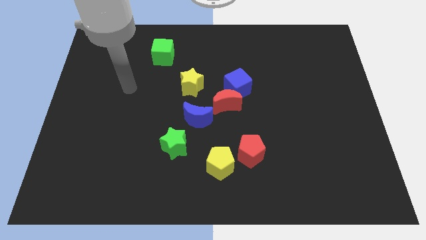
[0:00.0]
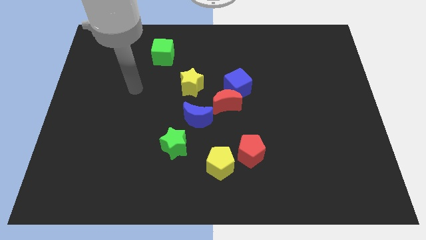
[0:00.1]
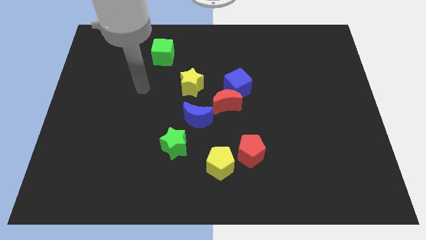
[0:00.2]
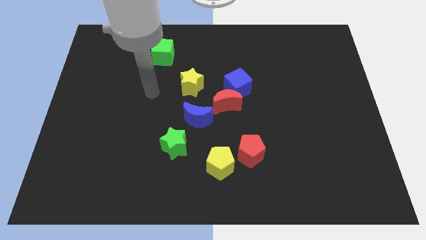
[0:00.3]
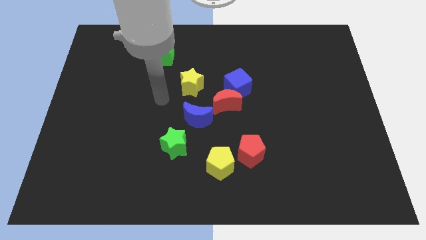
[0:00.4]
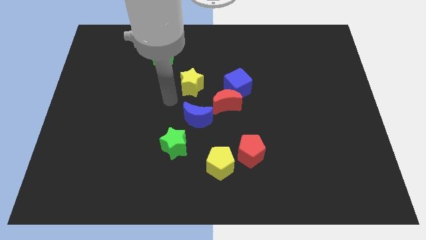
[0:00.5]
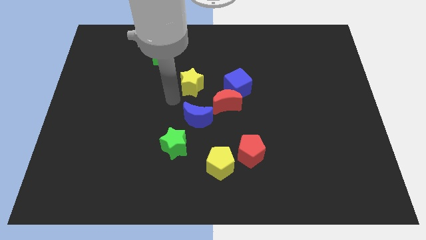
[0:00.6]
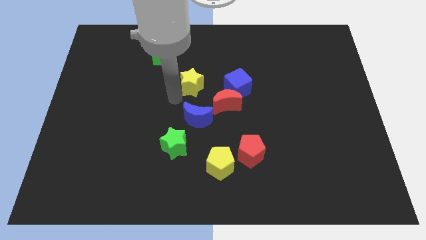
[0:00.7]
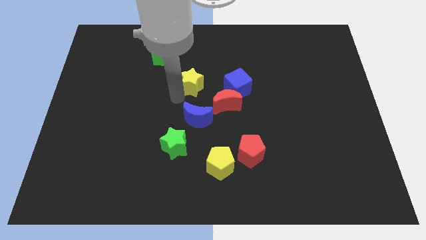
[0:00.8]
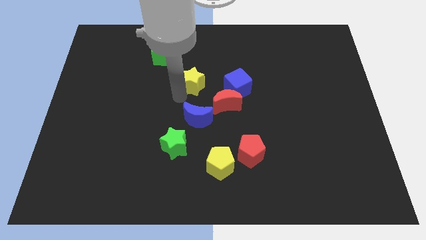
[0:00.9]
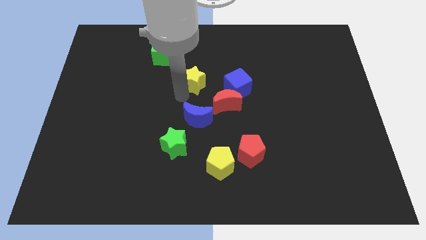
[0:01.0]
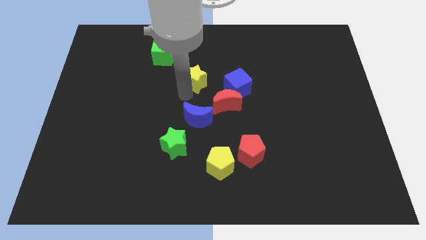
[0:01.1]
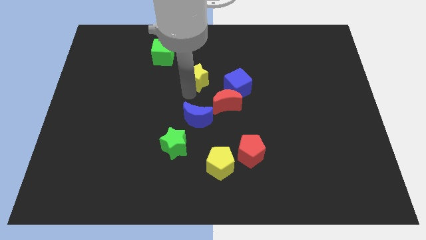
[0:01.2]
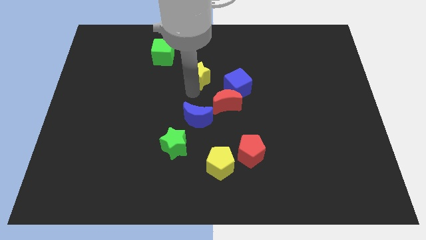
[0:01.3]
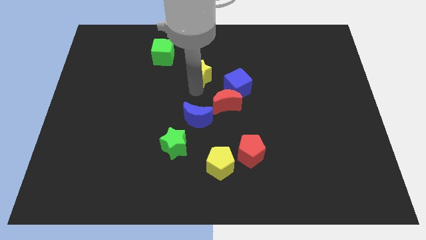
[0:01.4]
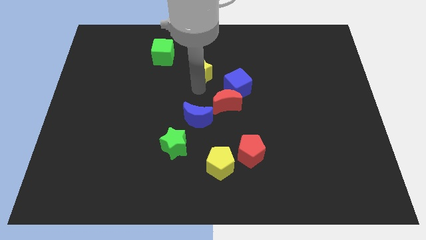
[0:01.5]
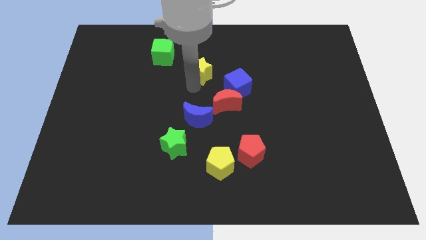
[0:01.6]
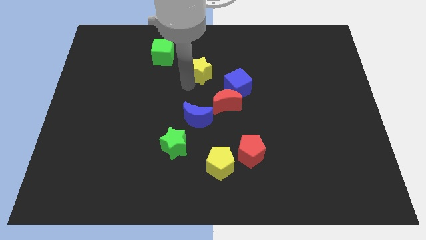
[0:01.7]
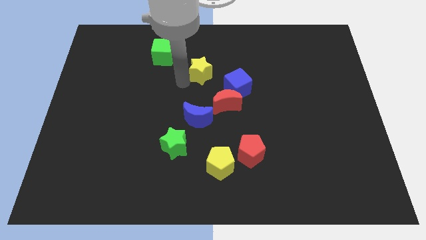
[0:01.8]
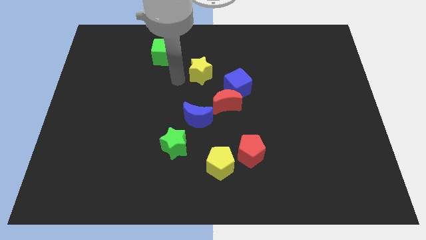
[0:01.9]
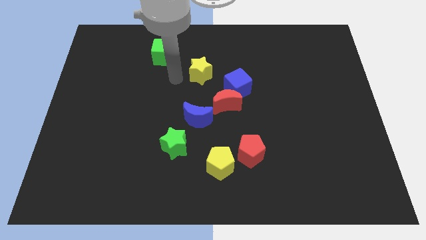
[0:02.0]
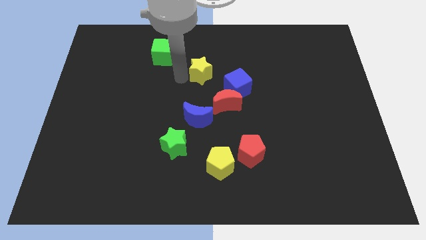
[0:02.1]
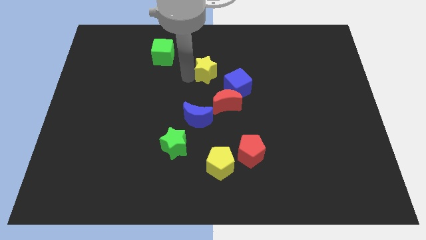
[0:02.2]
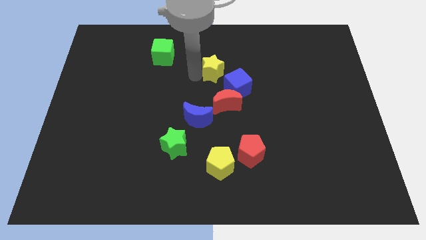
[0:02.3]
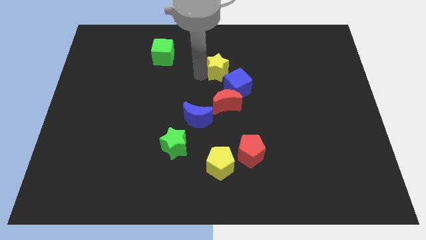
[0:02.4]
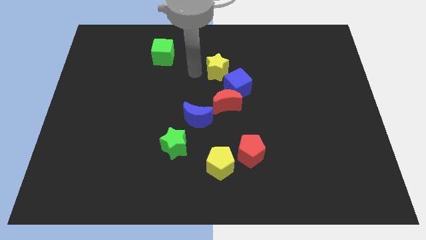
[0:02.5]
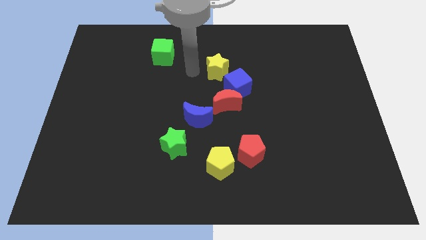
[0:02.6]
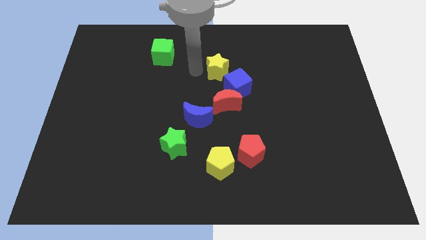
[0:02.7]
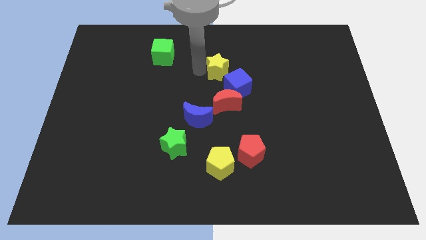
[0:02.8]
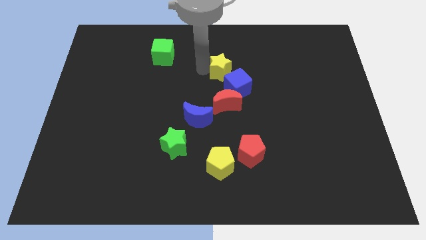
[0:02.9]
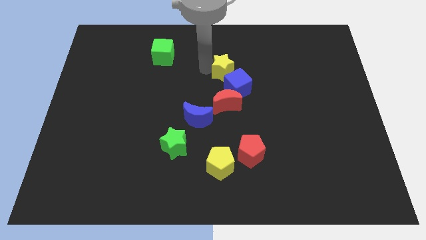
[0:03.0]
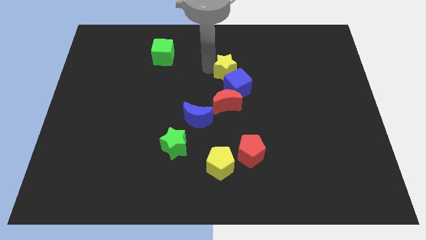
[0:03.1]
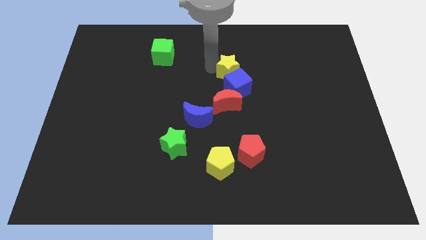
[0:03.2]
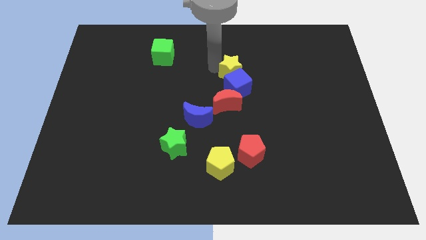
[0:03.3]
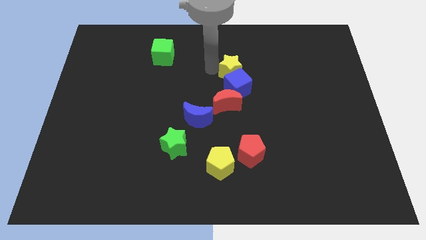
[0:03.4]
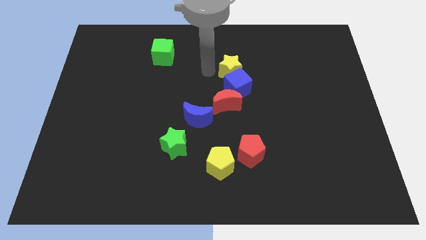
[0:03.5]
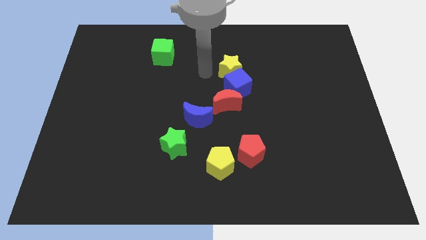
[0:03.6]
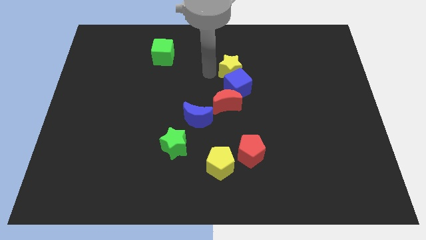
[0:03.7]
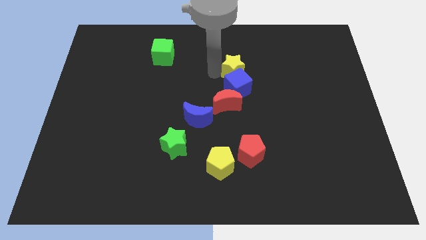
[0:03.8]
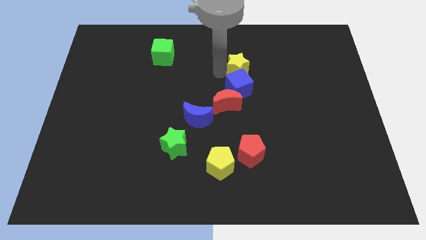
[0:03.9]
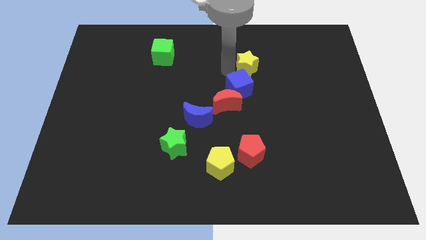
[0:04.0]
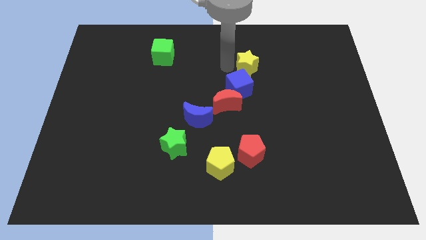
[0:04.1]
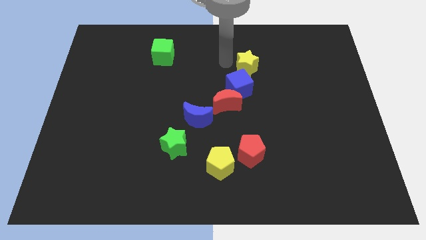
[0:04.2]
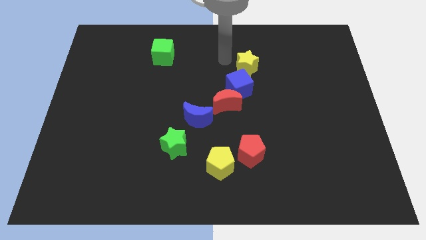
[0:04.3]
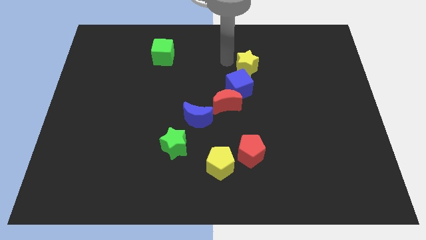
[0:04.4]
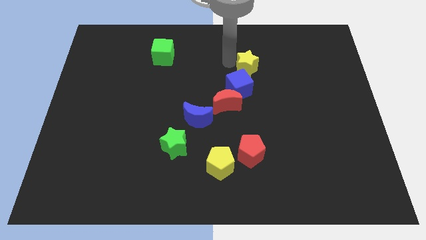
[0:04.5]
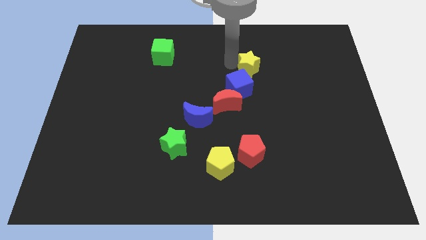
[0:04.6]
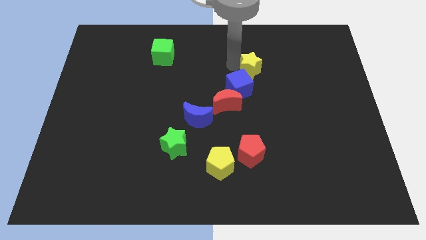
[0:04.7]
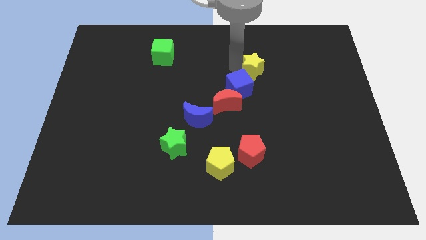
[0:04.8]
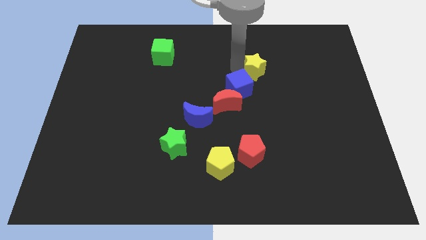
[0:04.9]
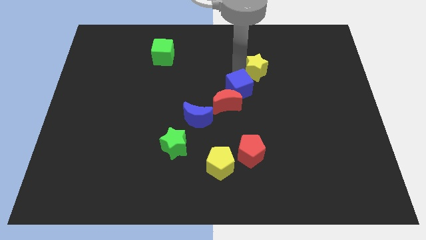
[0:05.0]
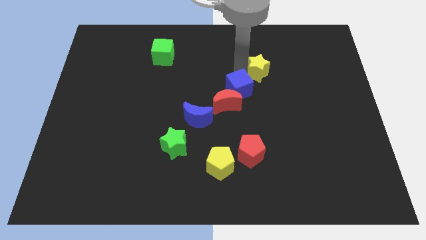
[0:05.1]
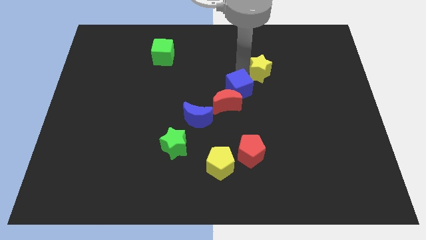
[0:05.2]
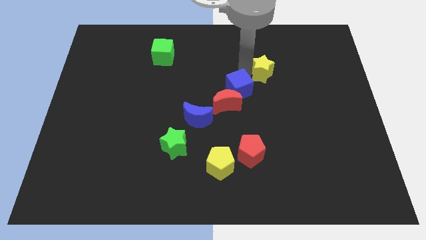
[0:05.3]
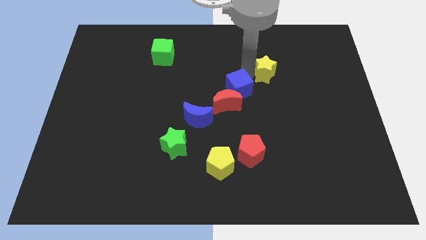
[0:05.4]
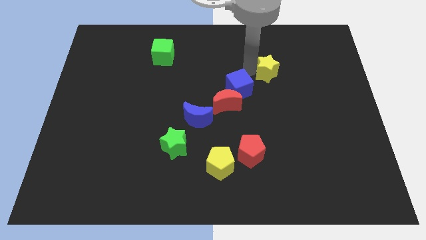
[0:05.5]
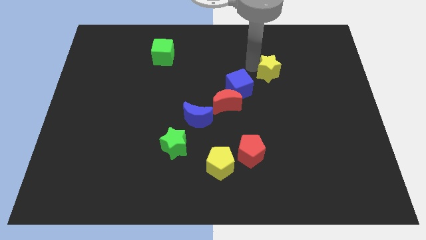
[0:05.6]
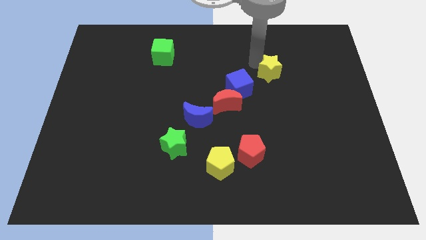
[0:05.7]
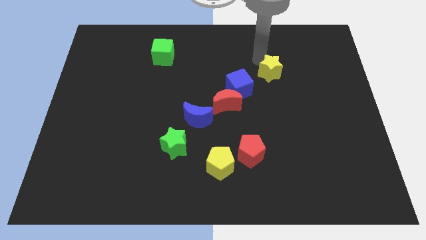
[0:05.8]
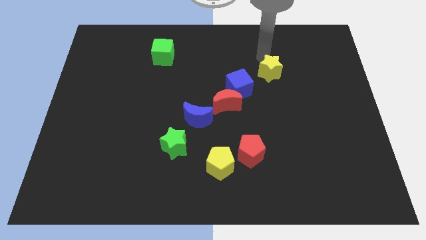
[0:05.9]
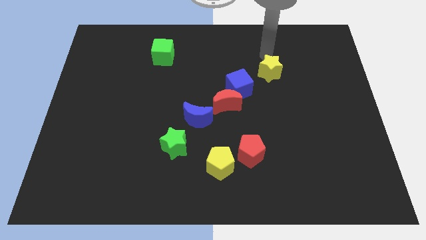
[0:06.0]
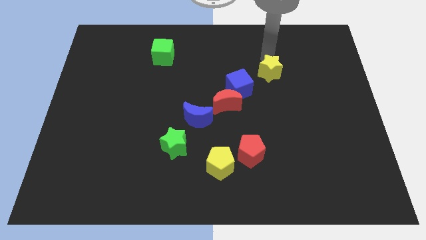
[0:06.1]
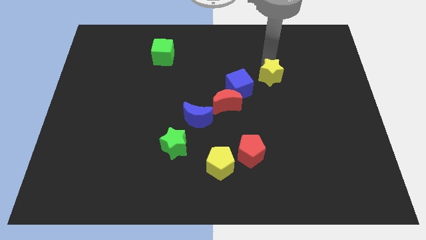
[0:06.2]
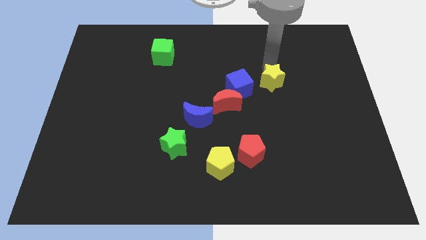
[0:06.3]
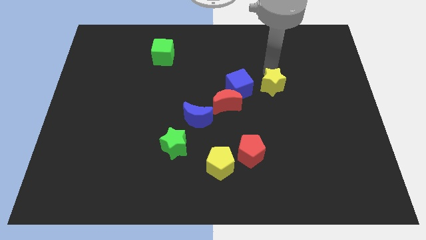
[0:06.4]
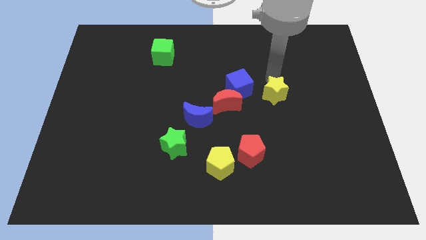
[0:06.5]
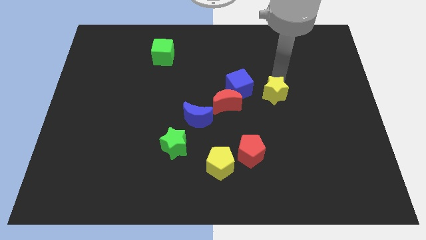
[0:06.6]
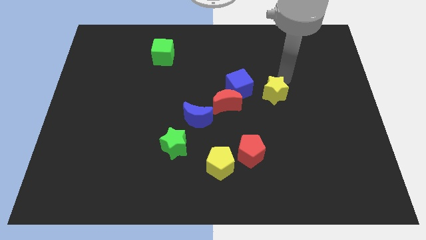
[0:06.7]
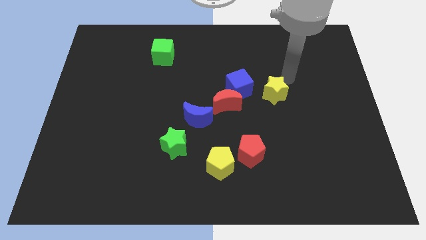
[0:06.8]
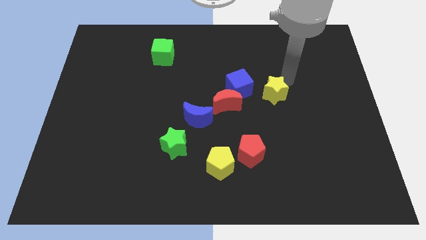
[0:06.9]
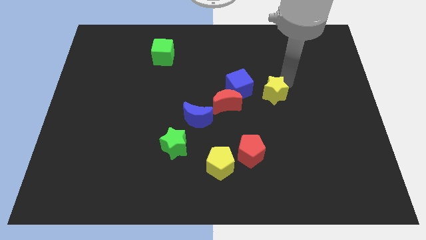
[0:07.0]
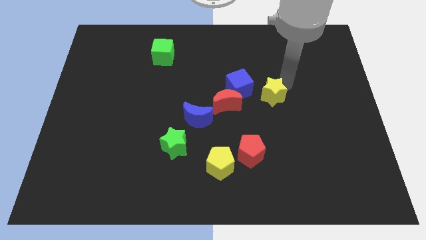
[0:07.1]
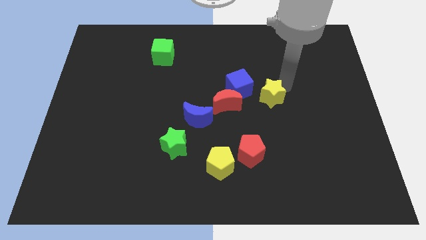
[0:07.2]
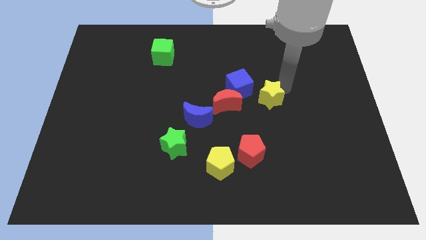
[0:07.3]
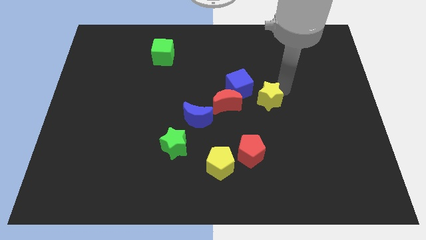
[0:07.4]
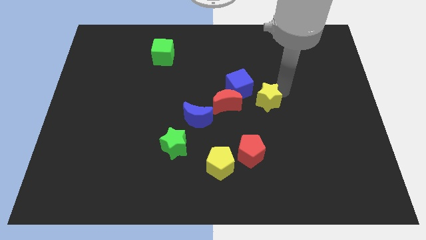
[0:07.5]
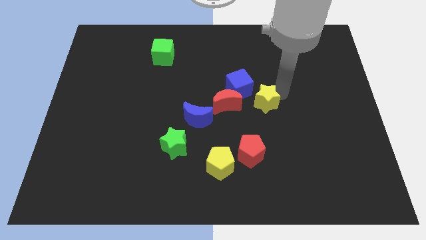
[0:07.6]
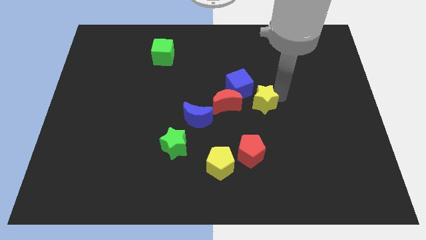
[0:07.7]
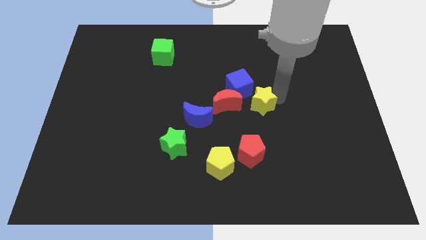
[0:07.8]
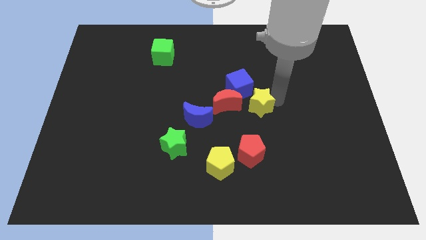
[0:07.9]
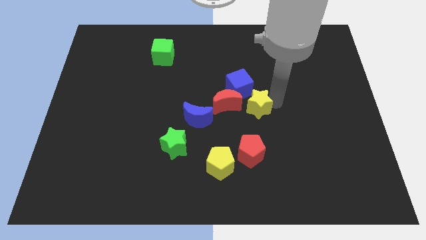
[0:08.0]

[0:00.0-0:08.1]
move the yellow star to the bottom right side of the red moon
